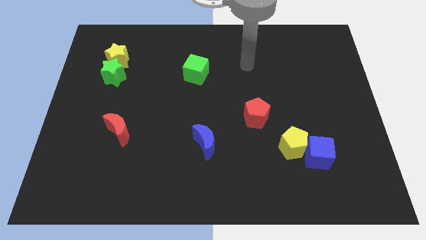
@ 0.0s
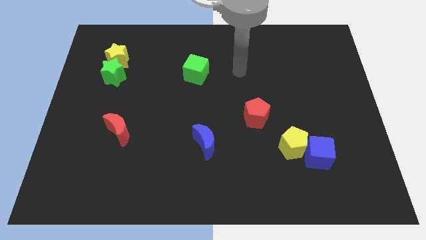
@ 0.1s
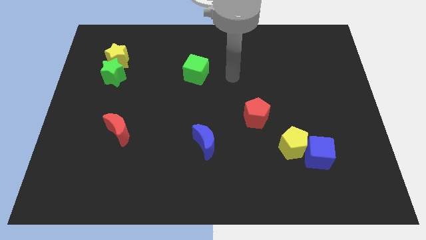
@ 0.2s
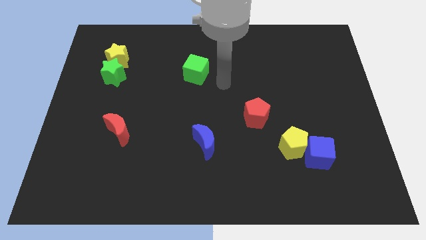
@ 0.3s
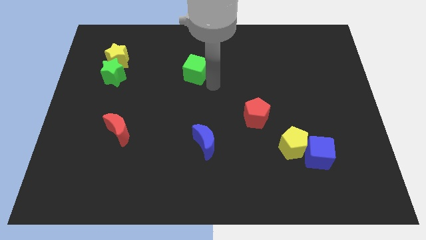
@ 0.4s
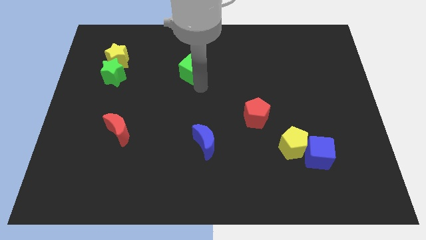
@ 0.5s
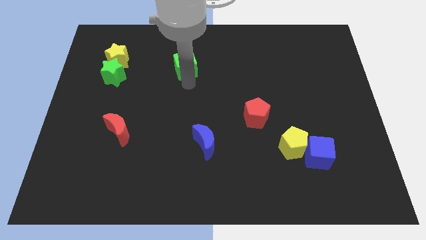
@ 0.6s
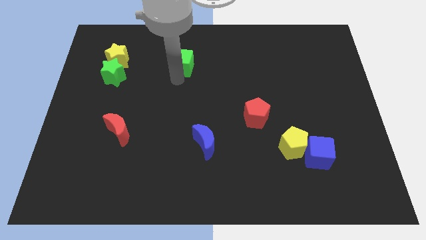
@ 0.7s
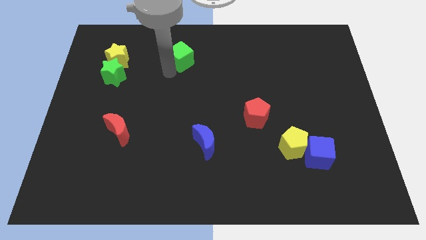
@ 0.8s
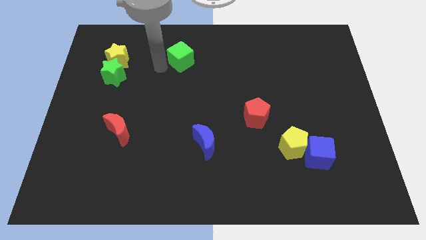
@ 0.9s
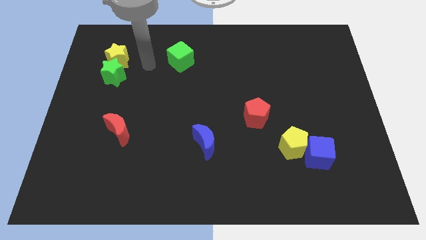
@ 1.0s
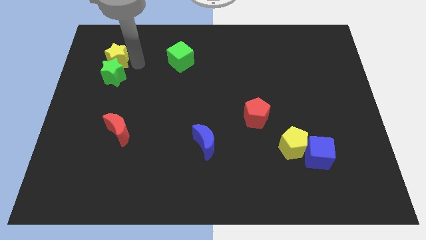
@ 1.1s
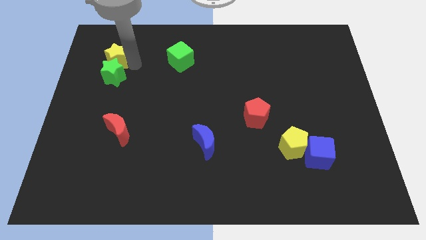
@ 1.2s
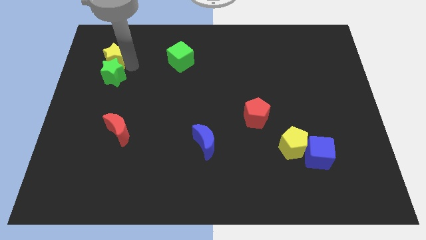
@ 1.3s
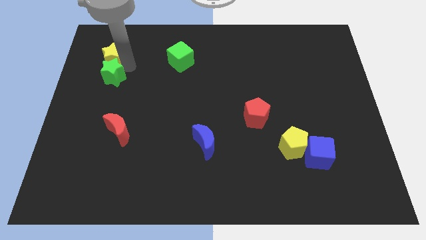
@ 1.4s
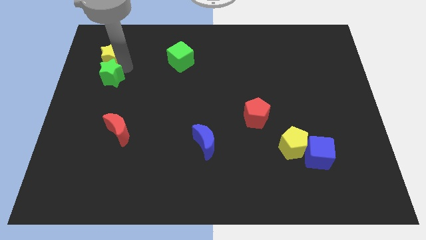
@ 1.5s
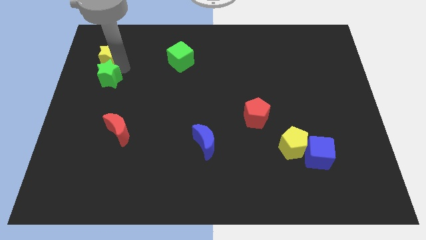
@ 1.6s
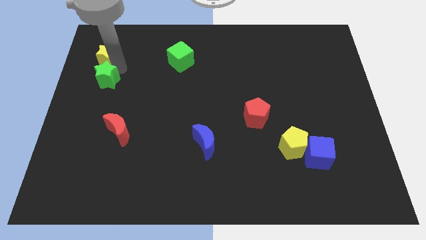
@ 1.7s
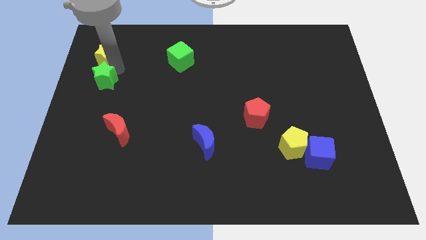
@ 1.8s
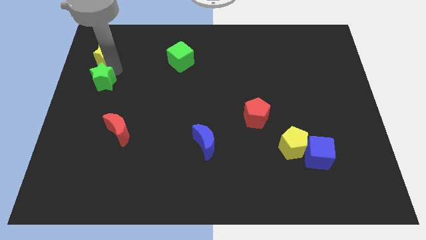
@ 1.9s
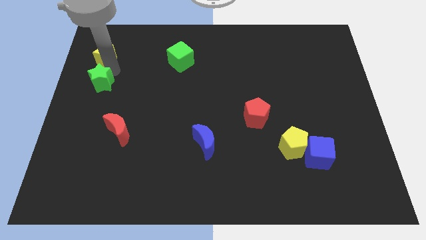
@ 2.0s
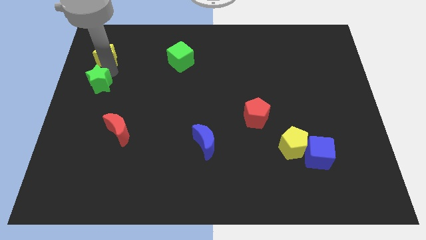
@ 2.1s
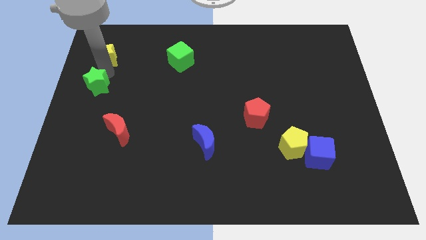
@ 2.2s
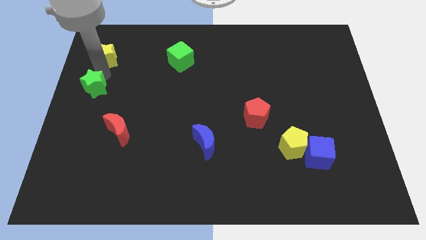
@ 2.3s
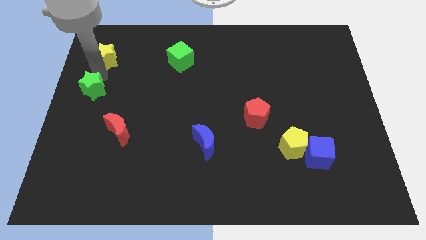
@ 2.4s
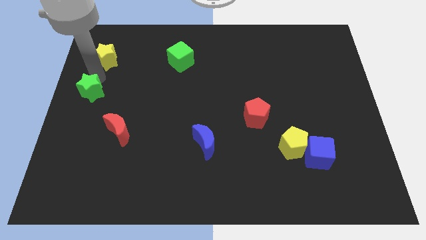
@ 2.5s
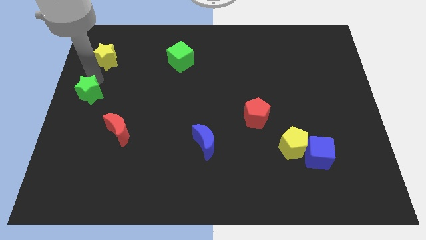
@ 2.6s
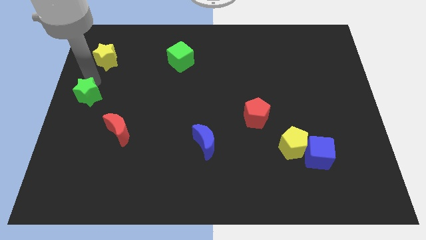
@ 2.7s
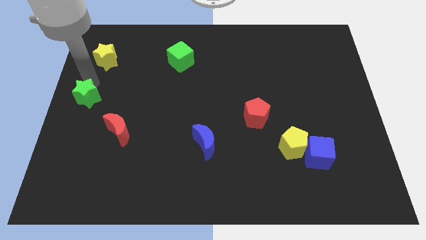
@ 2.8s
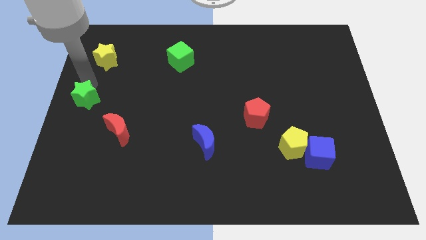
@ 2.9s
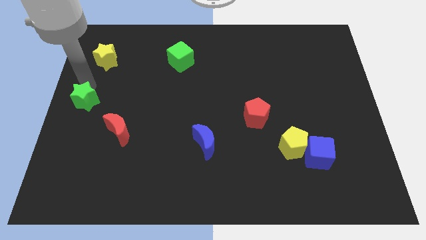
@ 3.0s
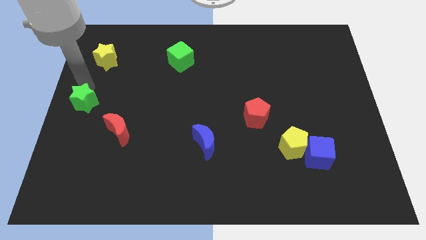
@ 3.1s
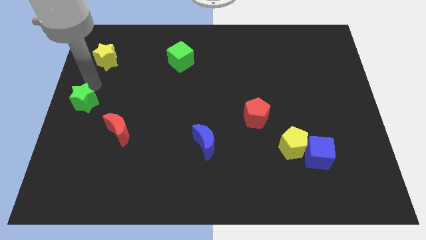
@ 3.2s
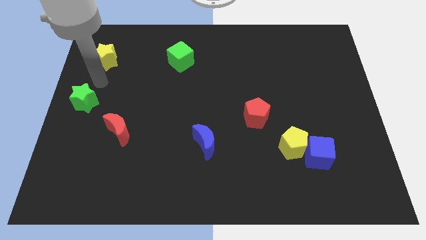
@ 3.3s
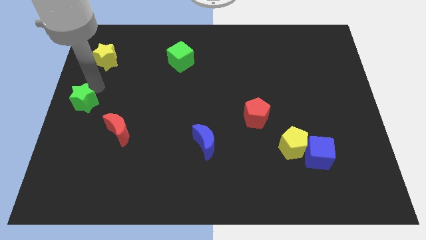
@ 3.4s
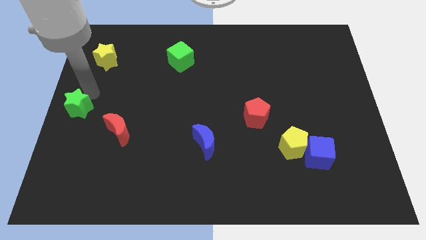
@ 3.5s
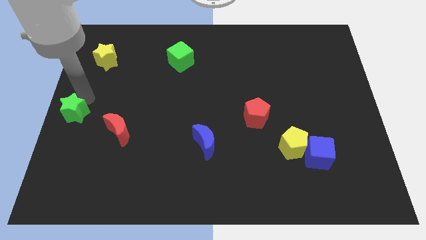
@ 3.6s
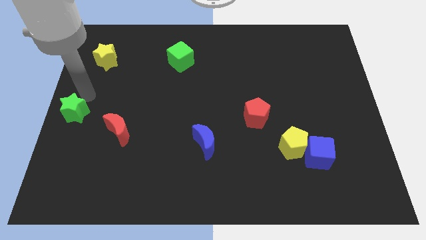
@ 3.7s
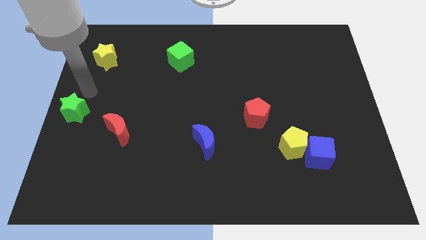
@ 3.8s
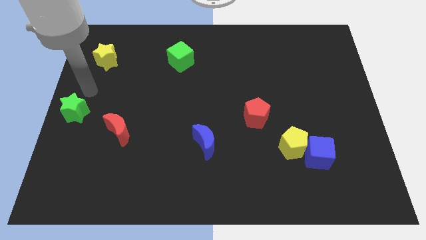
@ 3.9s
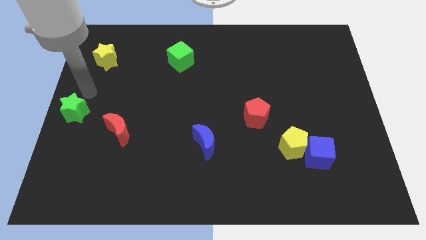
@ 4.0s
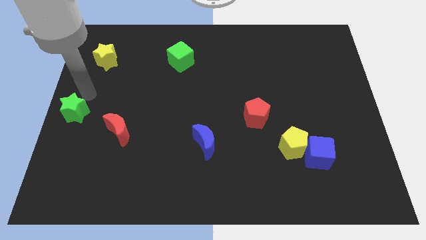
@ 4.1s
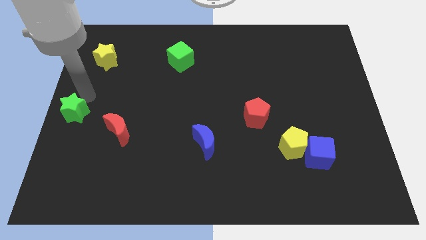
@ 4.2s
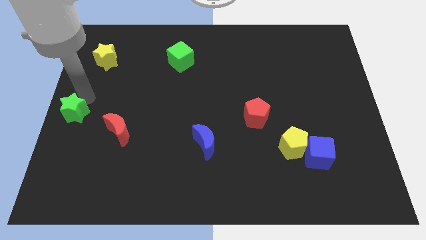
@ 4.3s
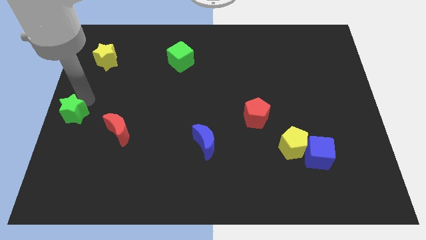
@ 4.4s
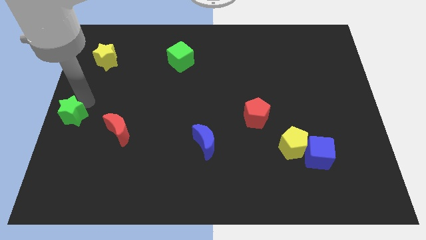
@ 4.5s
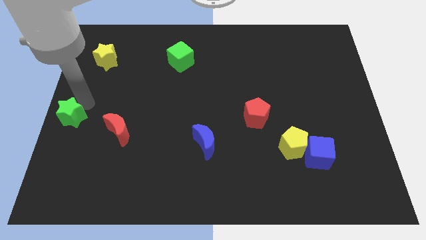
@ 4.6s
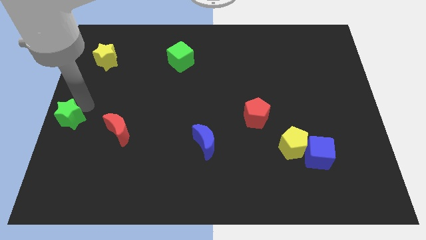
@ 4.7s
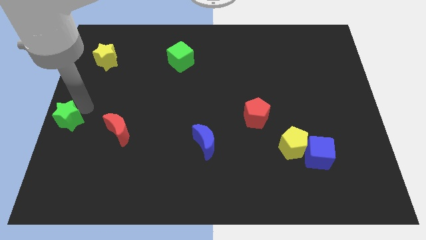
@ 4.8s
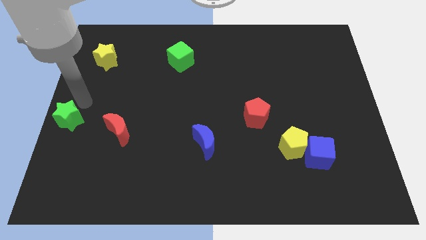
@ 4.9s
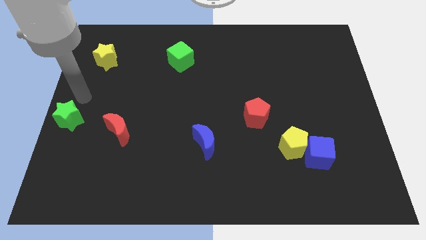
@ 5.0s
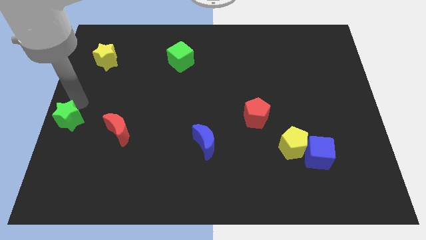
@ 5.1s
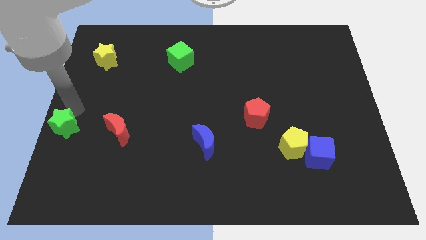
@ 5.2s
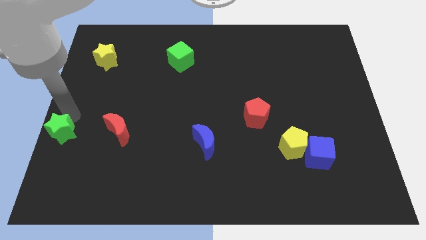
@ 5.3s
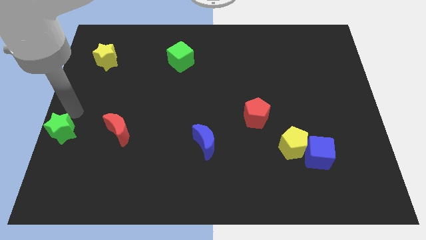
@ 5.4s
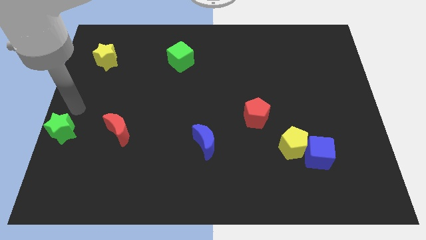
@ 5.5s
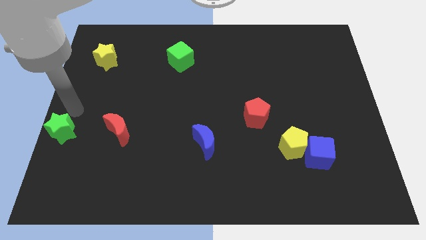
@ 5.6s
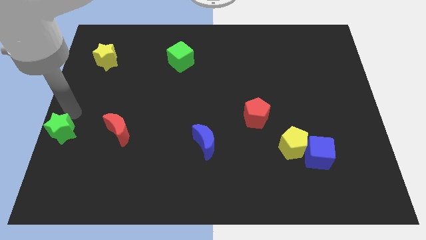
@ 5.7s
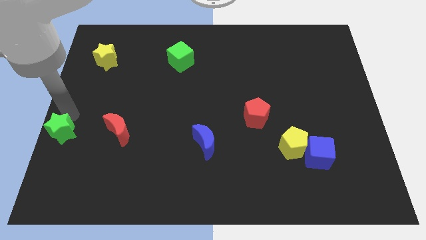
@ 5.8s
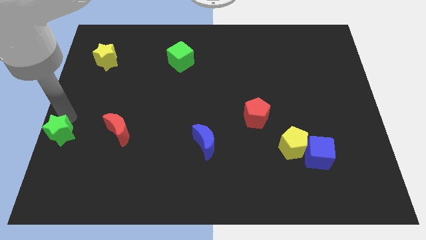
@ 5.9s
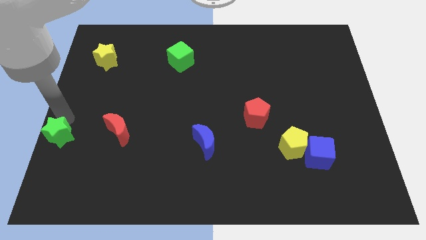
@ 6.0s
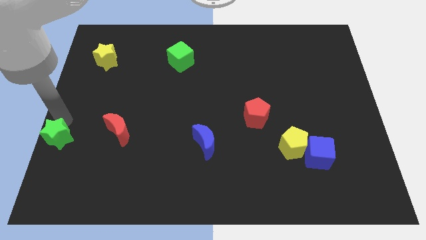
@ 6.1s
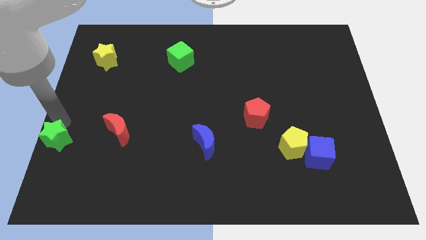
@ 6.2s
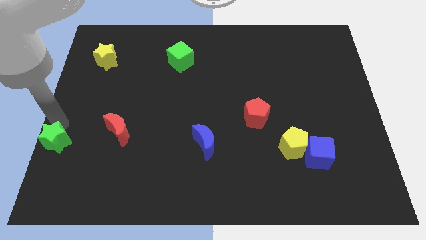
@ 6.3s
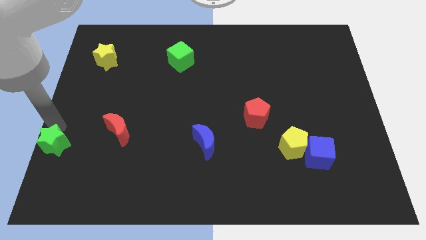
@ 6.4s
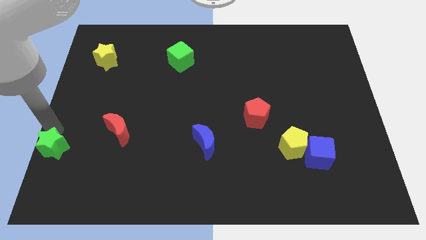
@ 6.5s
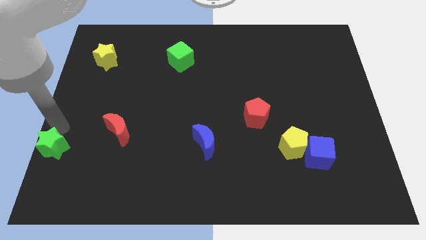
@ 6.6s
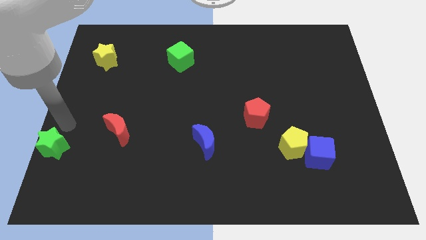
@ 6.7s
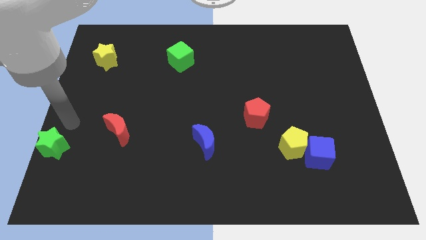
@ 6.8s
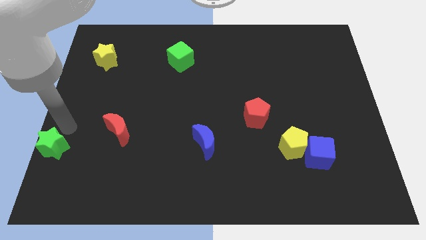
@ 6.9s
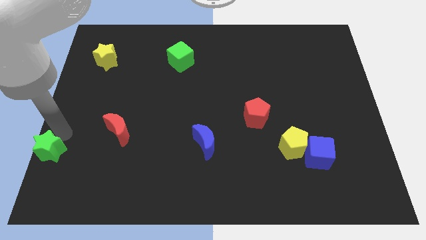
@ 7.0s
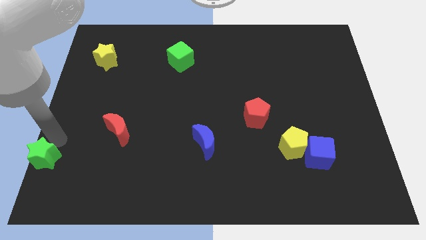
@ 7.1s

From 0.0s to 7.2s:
move the green star to the bottom left
